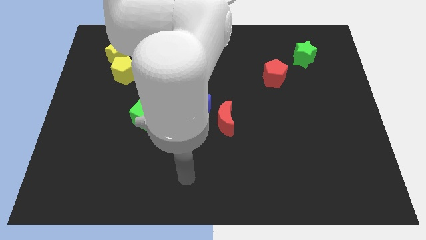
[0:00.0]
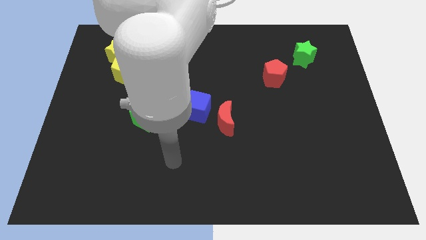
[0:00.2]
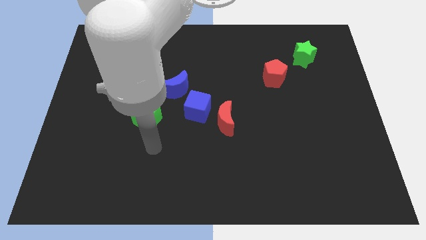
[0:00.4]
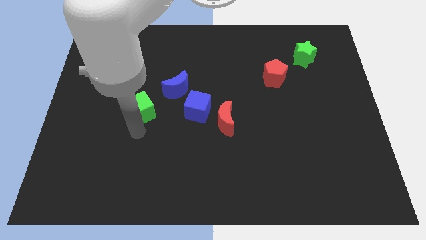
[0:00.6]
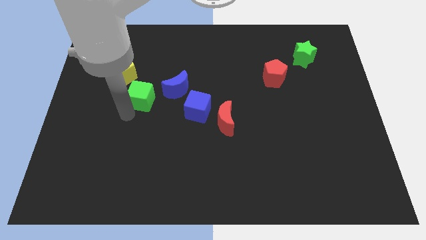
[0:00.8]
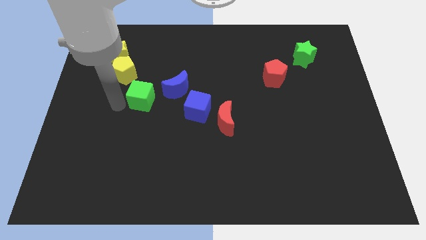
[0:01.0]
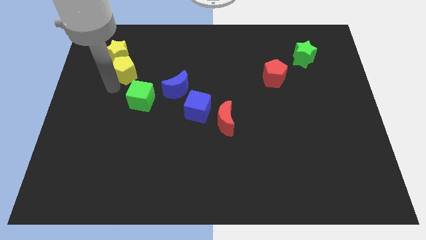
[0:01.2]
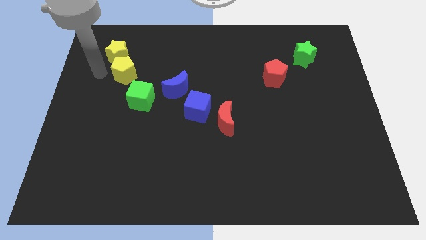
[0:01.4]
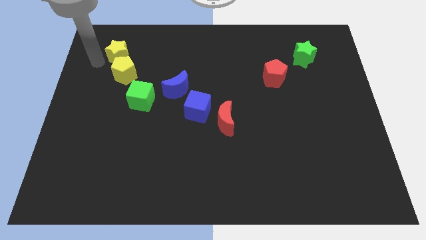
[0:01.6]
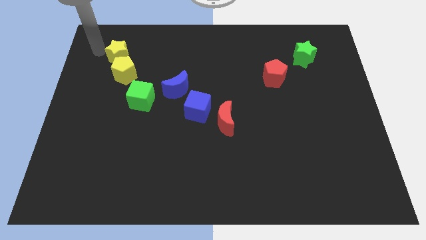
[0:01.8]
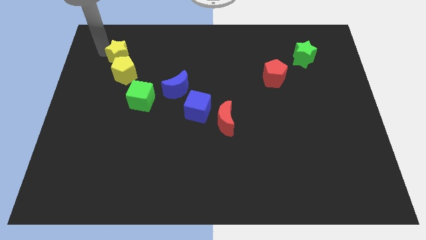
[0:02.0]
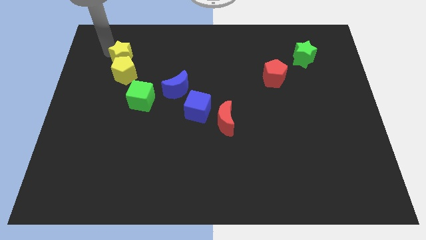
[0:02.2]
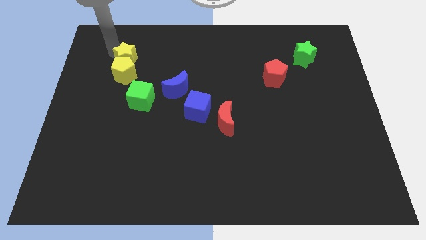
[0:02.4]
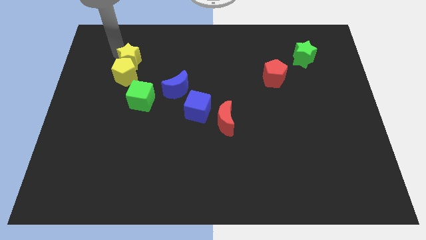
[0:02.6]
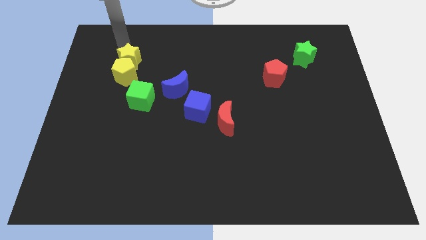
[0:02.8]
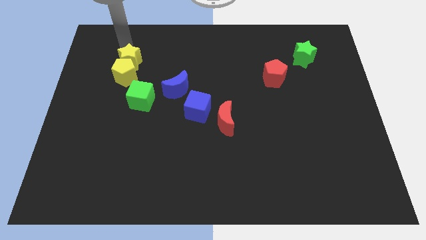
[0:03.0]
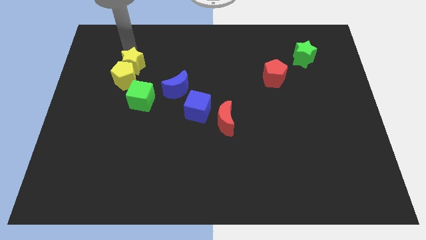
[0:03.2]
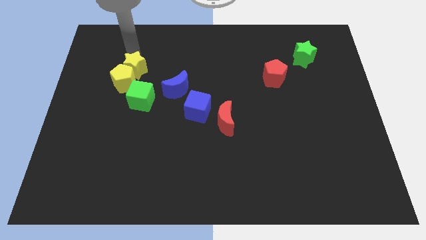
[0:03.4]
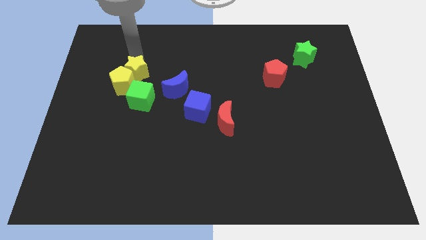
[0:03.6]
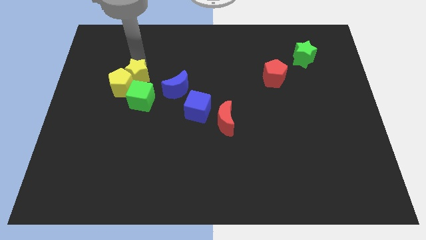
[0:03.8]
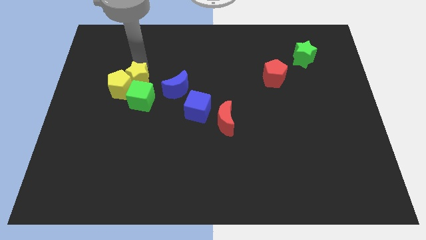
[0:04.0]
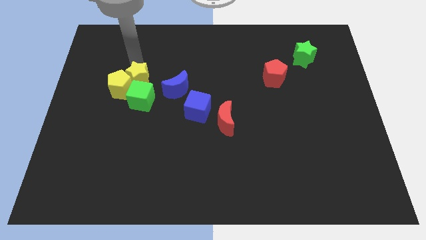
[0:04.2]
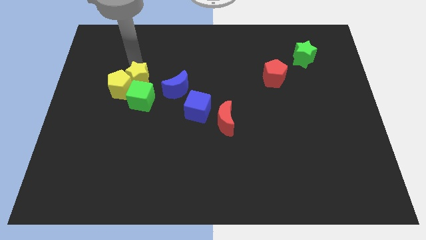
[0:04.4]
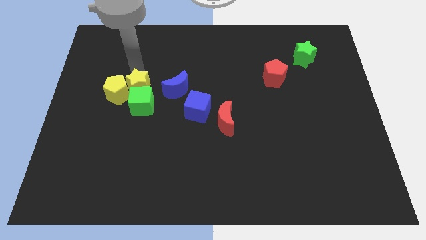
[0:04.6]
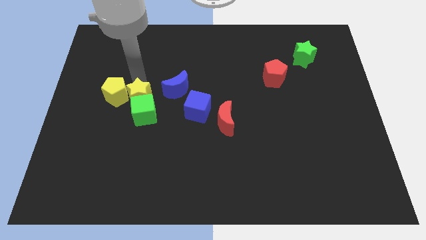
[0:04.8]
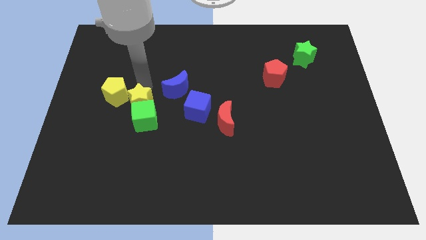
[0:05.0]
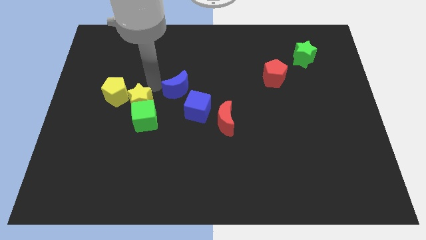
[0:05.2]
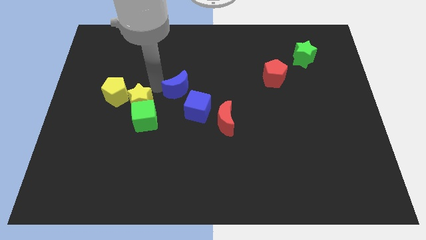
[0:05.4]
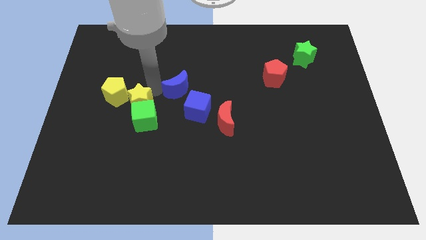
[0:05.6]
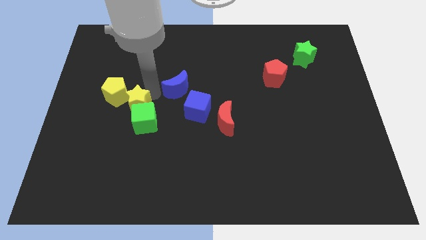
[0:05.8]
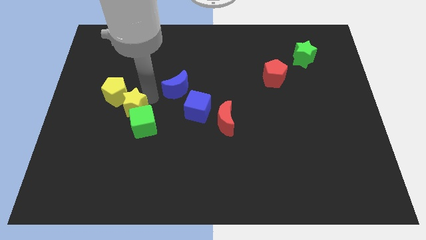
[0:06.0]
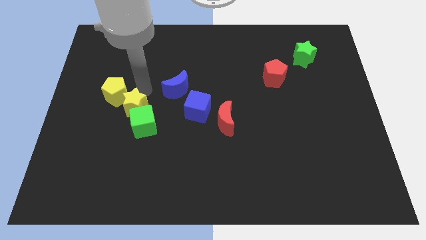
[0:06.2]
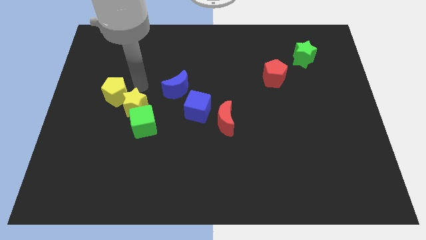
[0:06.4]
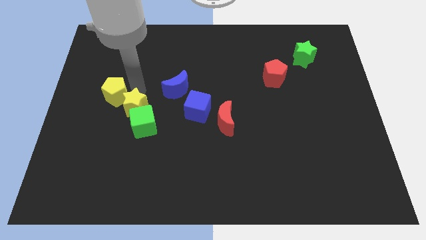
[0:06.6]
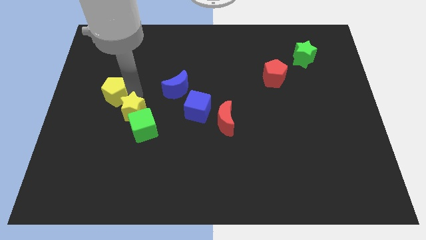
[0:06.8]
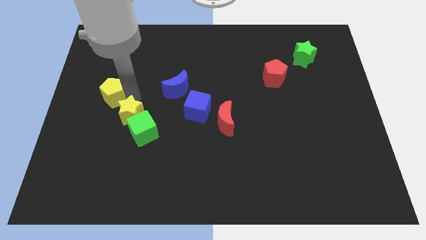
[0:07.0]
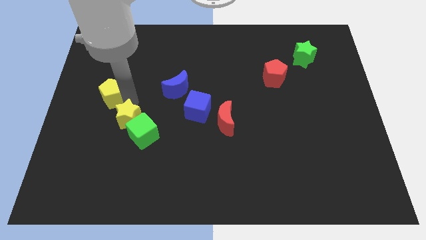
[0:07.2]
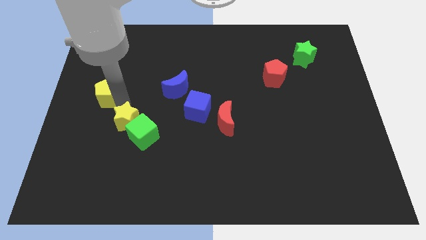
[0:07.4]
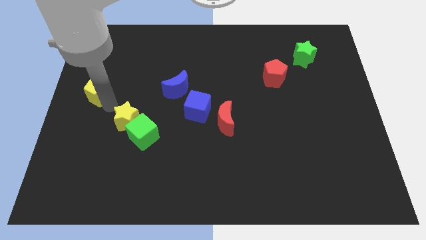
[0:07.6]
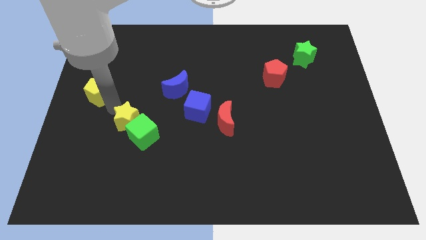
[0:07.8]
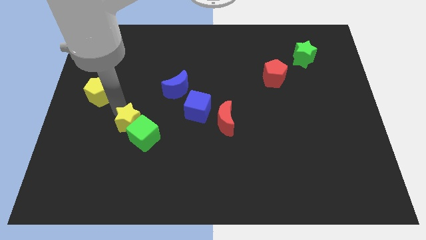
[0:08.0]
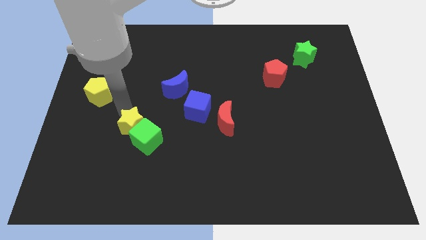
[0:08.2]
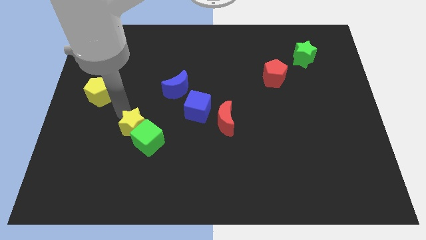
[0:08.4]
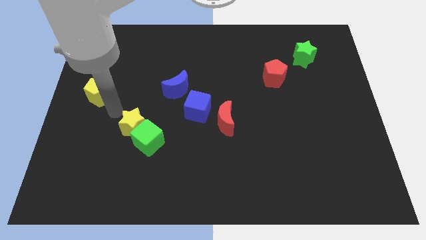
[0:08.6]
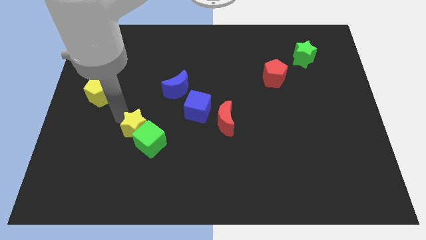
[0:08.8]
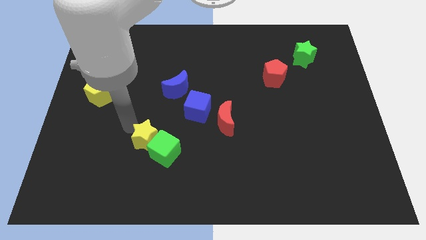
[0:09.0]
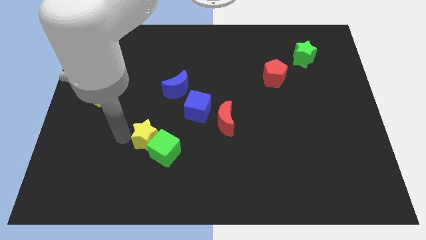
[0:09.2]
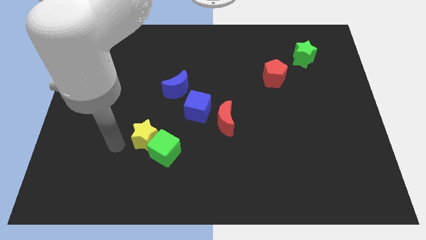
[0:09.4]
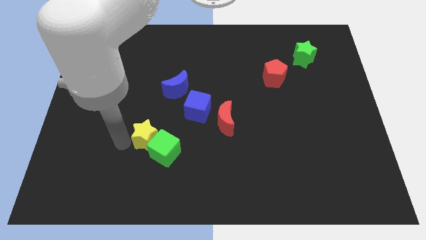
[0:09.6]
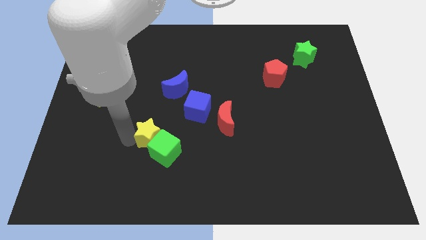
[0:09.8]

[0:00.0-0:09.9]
slide the yellow star downwards and right

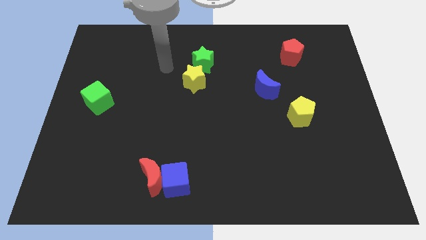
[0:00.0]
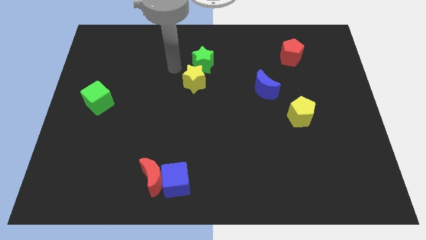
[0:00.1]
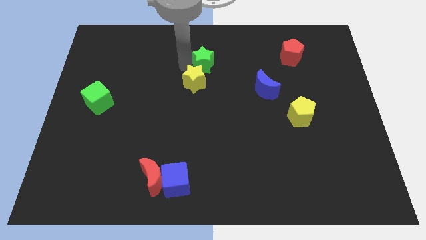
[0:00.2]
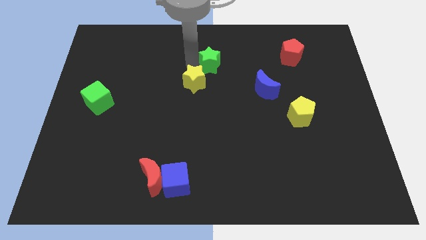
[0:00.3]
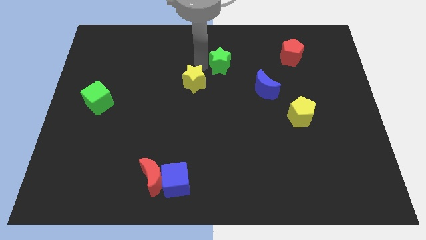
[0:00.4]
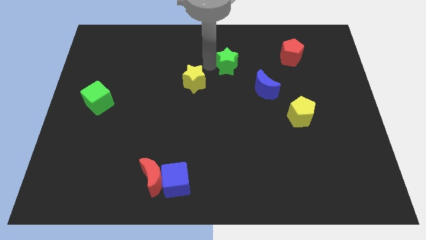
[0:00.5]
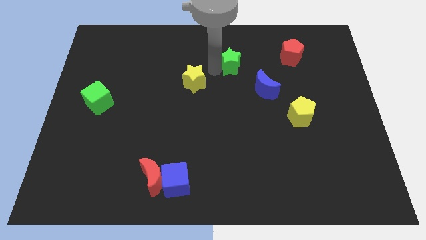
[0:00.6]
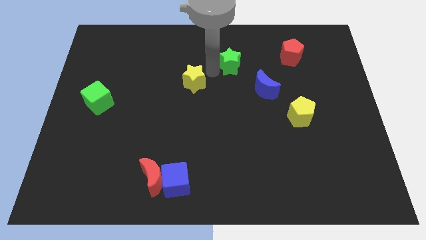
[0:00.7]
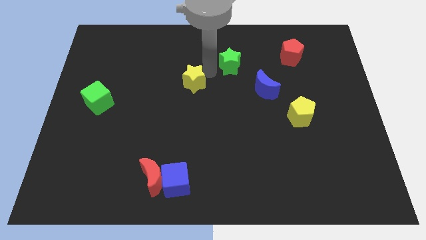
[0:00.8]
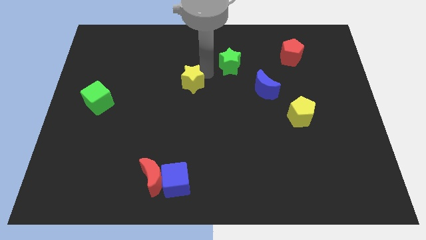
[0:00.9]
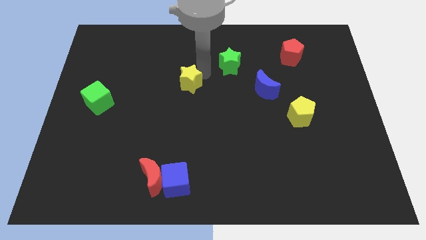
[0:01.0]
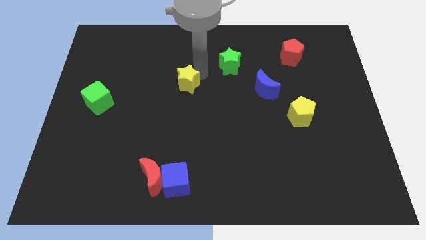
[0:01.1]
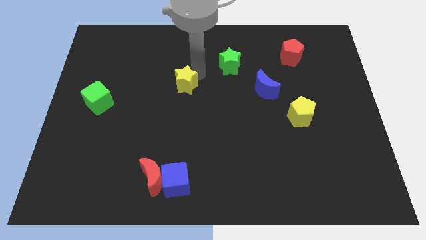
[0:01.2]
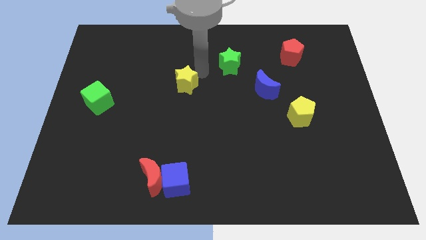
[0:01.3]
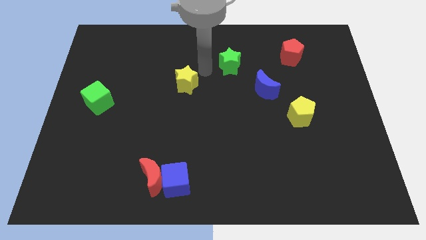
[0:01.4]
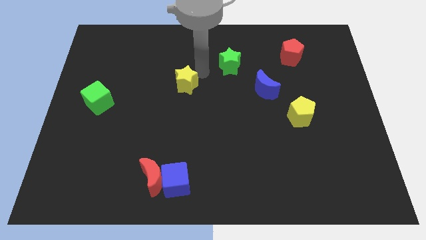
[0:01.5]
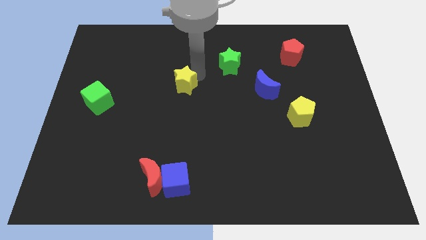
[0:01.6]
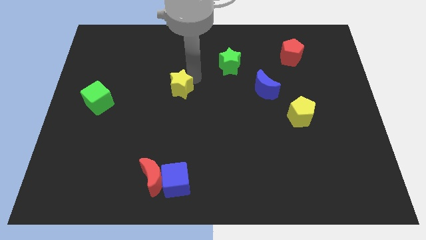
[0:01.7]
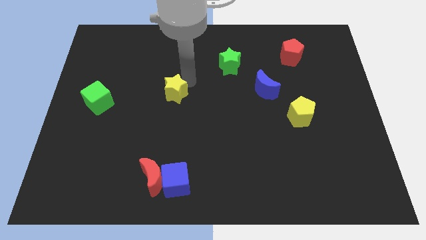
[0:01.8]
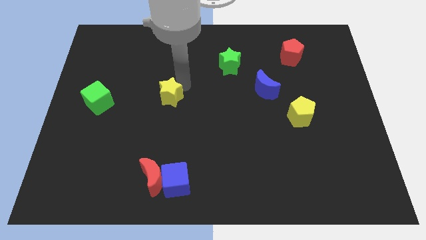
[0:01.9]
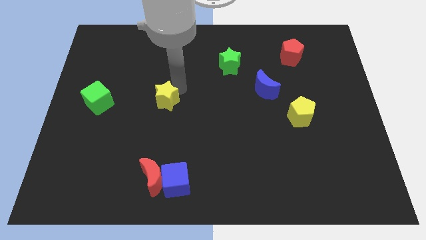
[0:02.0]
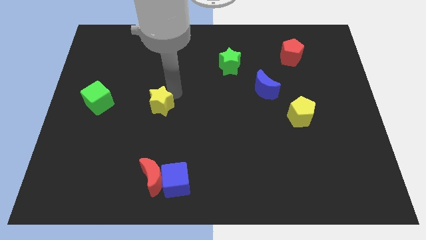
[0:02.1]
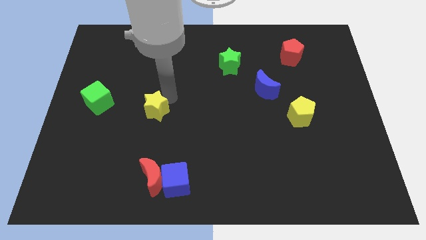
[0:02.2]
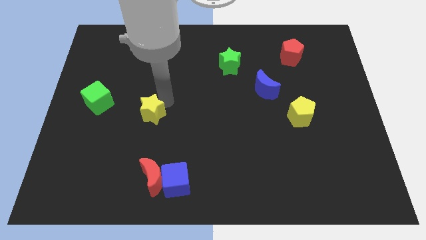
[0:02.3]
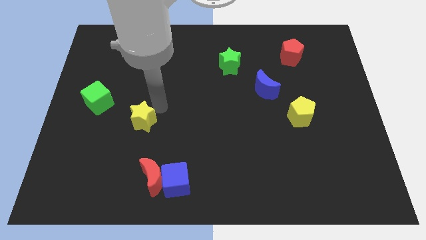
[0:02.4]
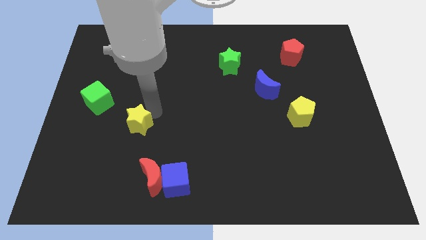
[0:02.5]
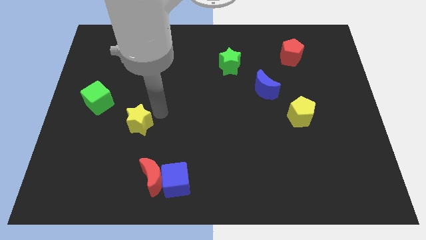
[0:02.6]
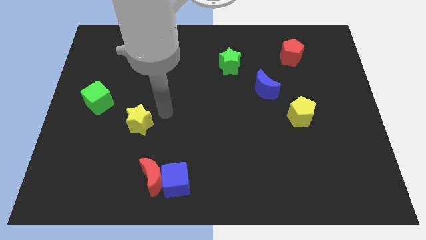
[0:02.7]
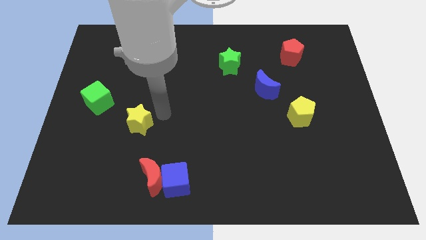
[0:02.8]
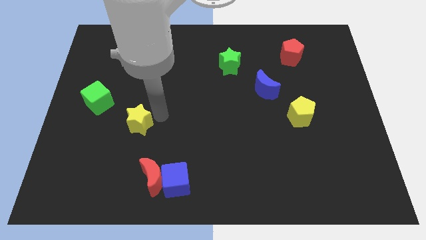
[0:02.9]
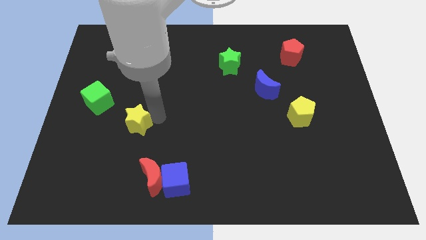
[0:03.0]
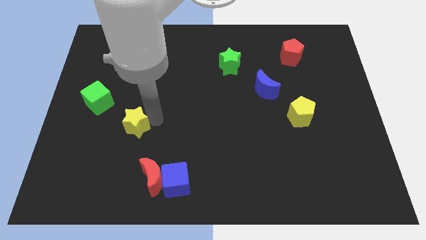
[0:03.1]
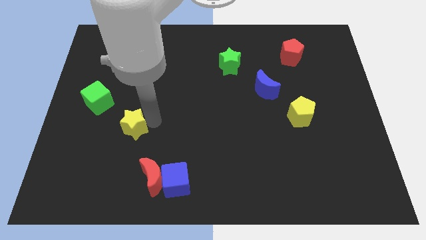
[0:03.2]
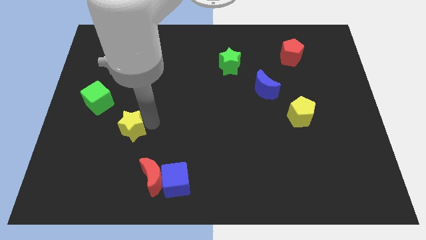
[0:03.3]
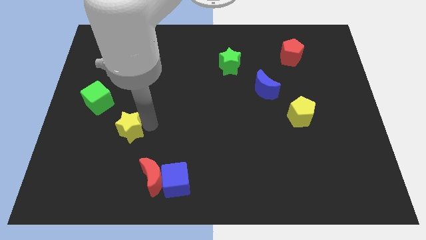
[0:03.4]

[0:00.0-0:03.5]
slide the yellow star downwards and then to the left
